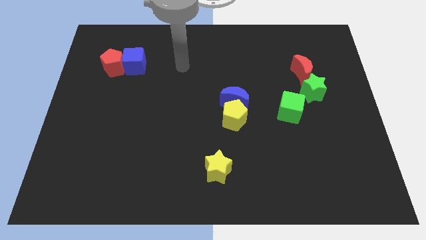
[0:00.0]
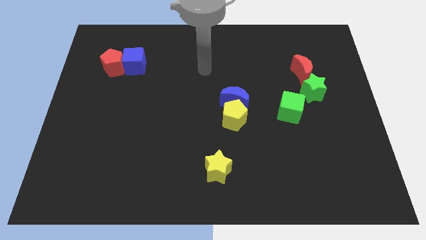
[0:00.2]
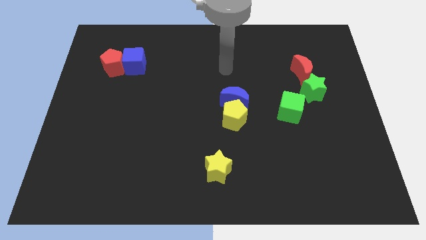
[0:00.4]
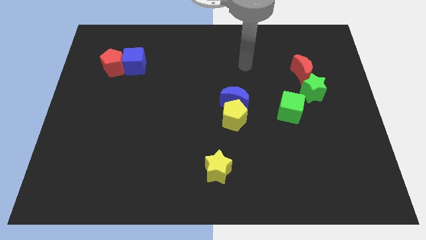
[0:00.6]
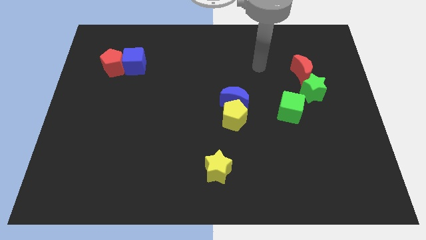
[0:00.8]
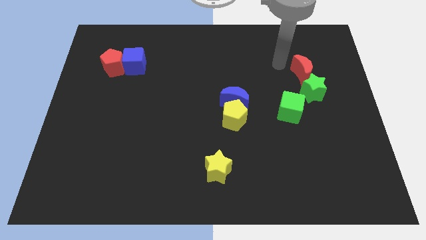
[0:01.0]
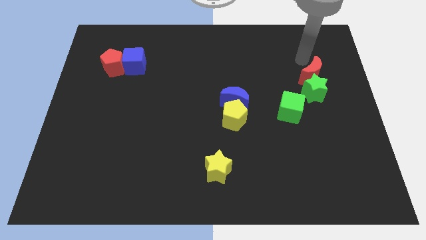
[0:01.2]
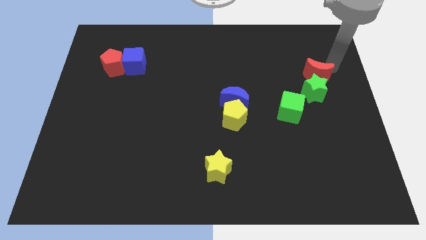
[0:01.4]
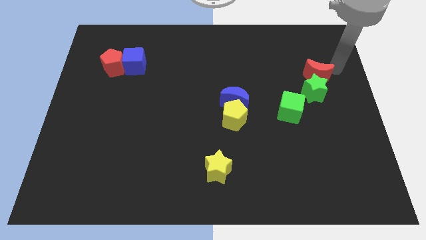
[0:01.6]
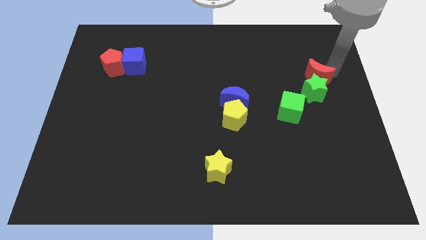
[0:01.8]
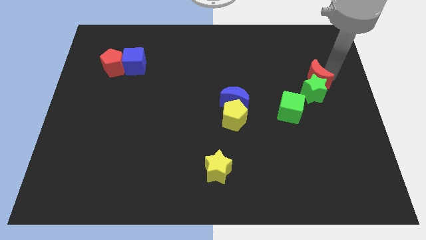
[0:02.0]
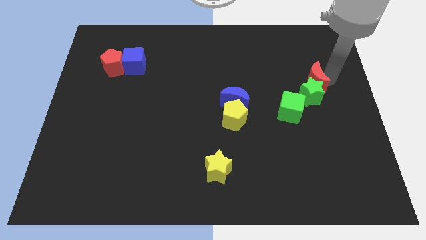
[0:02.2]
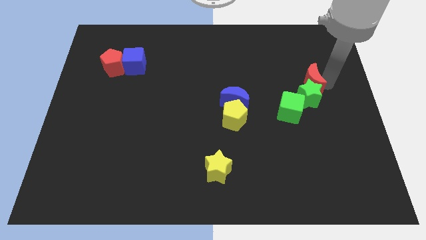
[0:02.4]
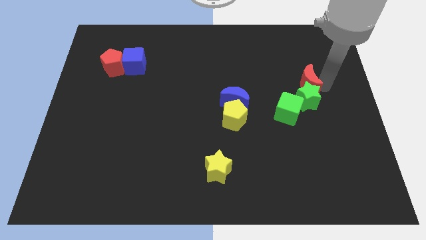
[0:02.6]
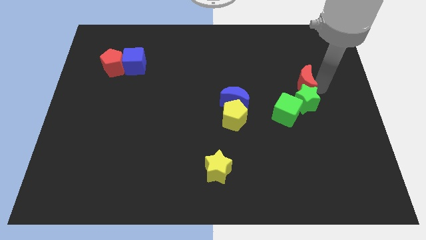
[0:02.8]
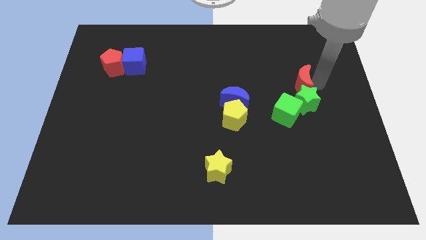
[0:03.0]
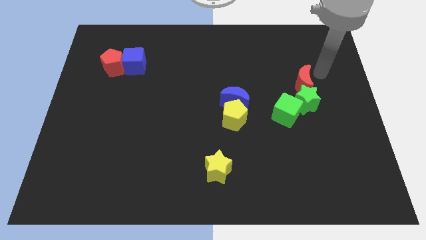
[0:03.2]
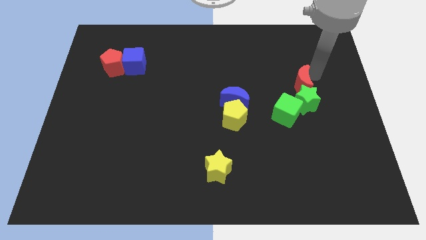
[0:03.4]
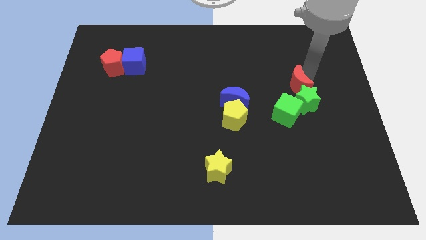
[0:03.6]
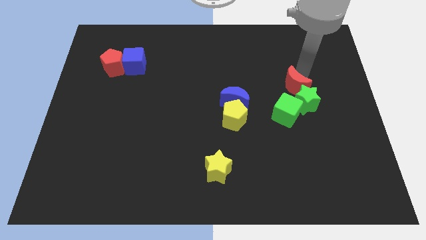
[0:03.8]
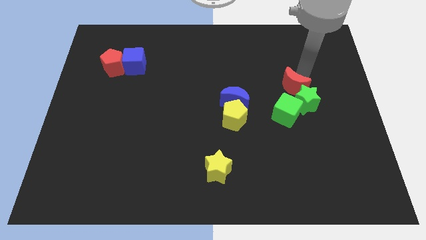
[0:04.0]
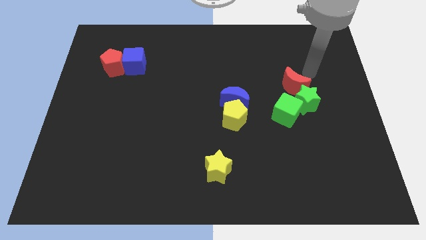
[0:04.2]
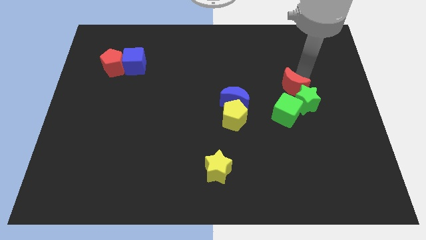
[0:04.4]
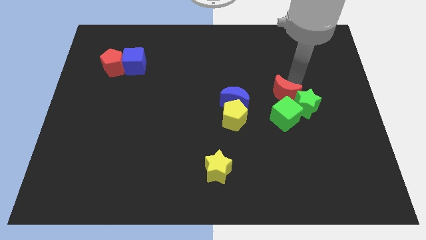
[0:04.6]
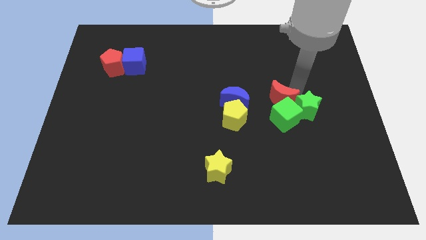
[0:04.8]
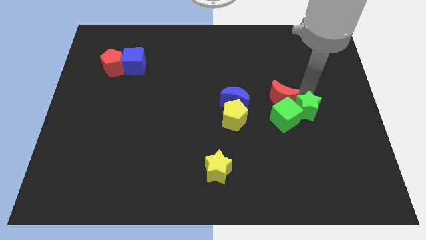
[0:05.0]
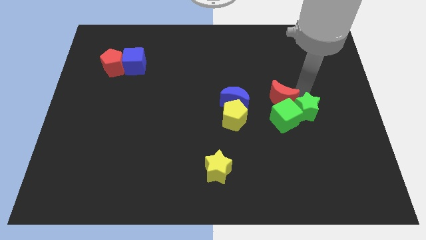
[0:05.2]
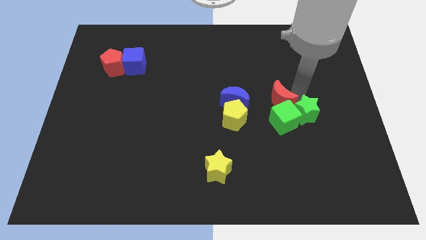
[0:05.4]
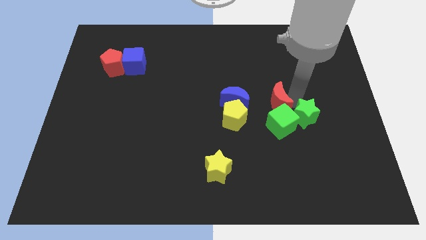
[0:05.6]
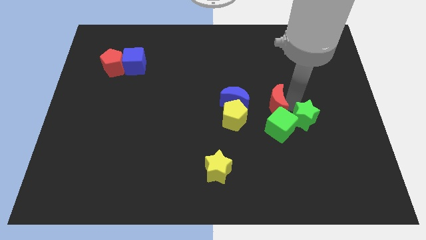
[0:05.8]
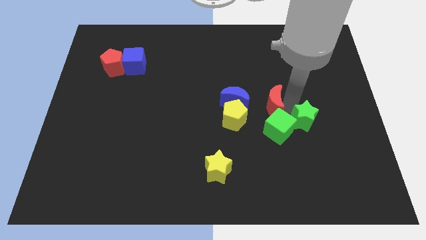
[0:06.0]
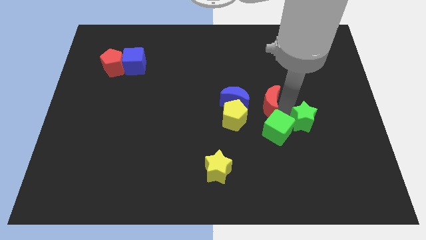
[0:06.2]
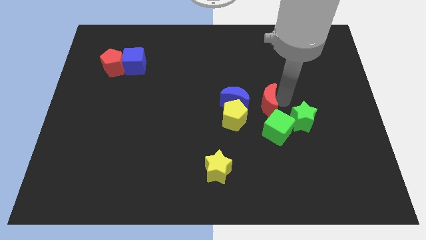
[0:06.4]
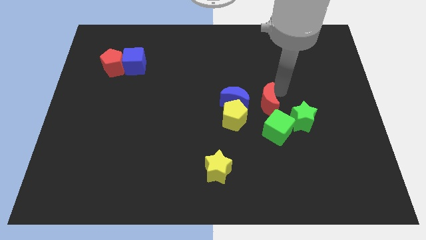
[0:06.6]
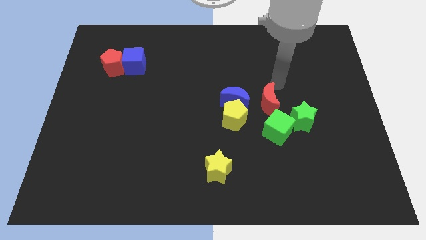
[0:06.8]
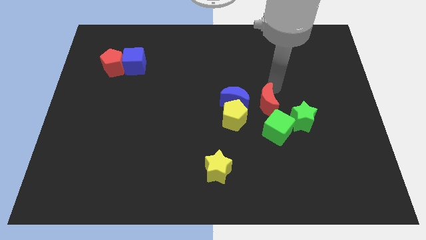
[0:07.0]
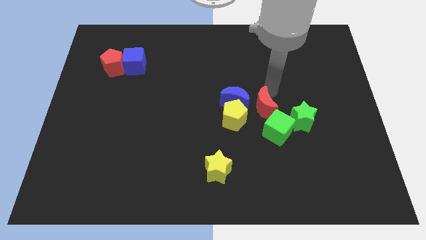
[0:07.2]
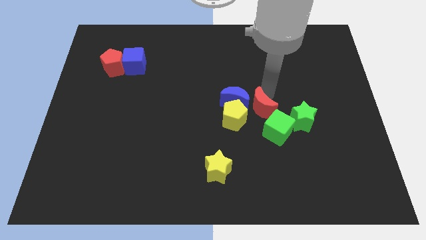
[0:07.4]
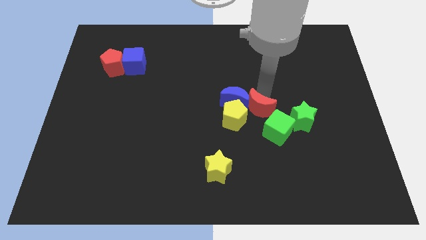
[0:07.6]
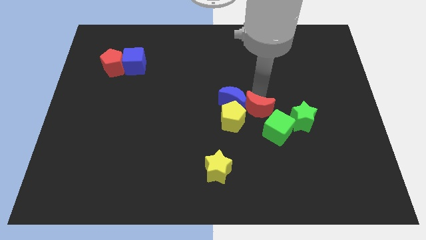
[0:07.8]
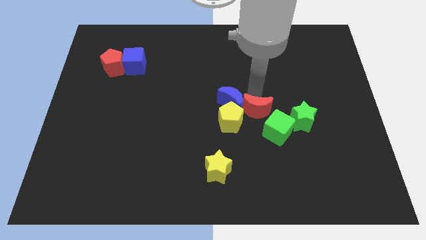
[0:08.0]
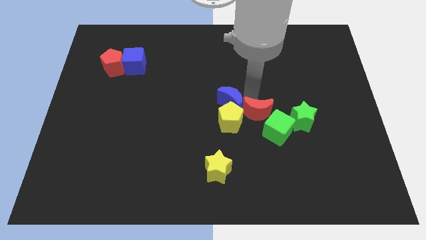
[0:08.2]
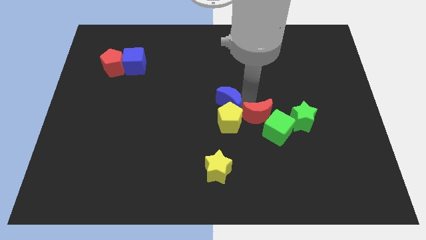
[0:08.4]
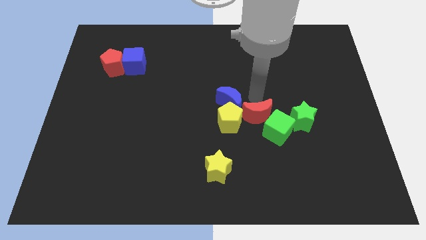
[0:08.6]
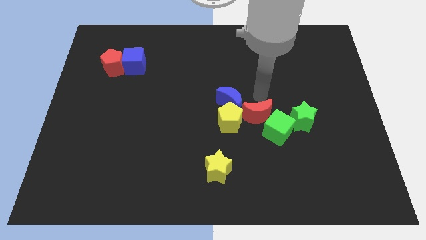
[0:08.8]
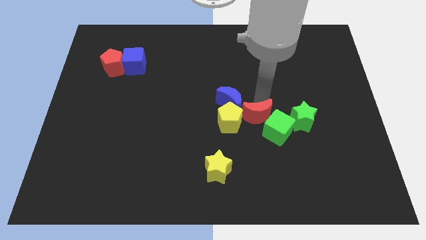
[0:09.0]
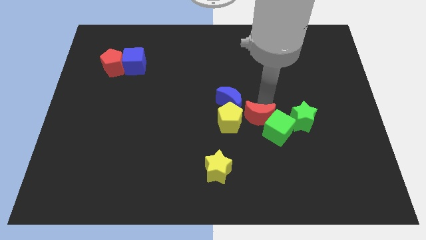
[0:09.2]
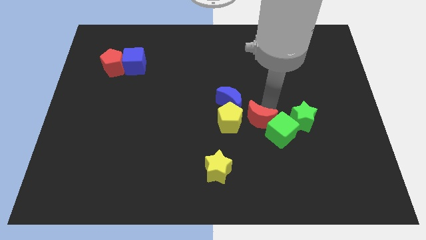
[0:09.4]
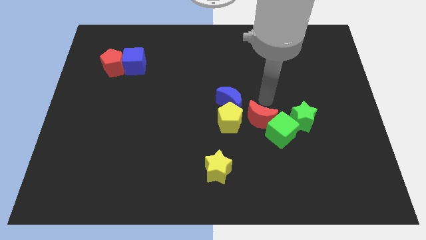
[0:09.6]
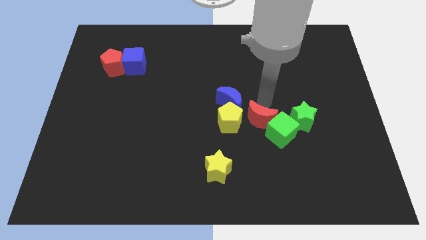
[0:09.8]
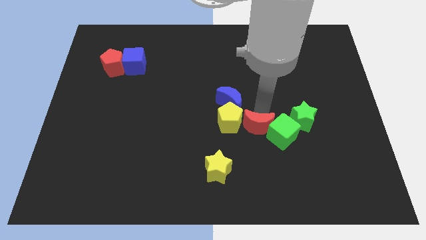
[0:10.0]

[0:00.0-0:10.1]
push the red moon to the bottom right of the yellow pentagon

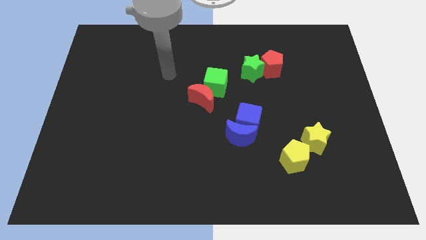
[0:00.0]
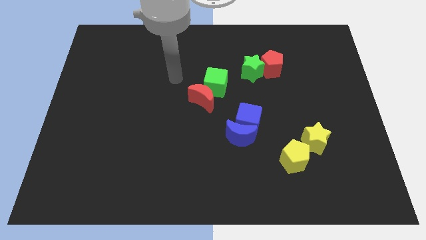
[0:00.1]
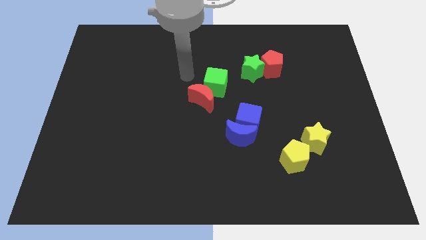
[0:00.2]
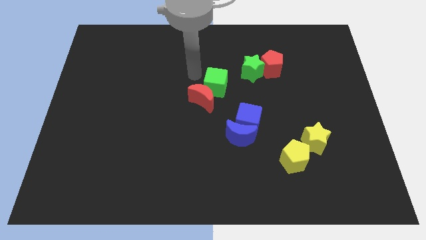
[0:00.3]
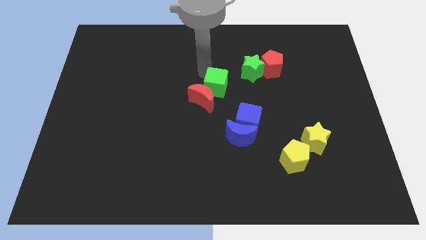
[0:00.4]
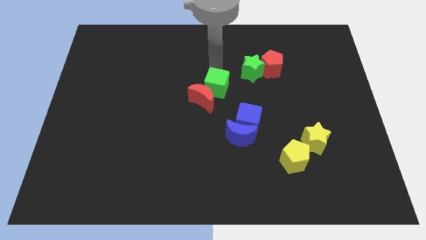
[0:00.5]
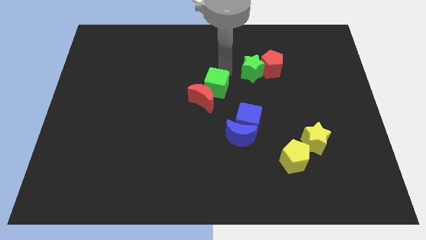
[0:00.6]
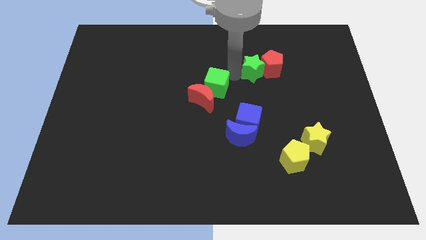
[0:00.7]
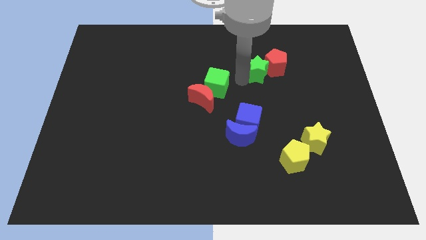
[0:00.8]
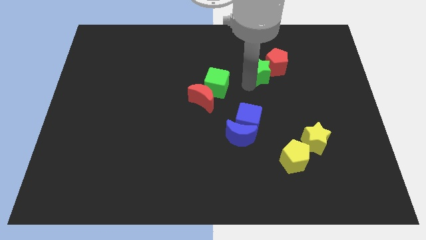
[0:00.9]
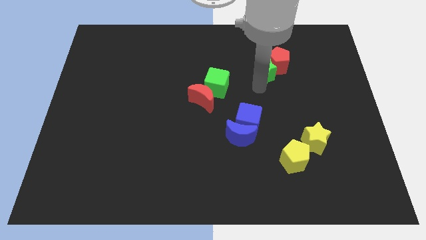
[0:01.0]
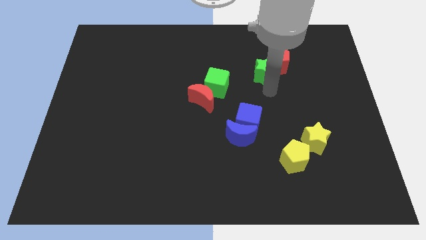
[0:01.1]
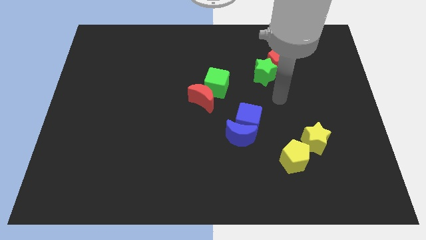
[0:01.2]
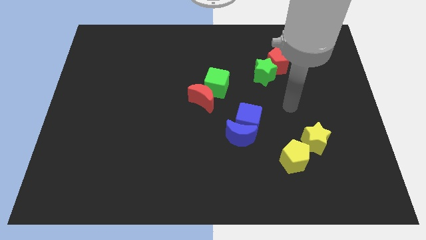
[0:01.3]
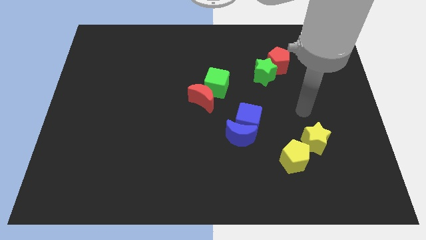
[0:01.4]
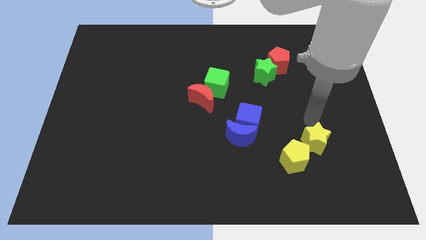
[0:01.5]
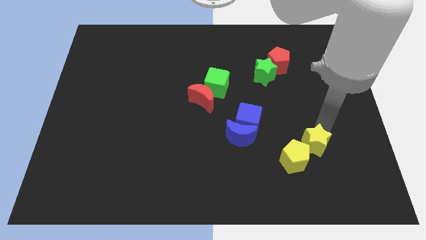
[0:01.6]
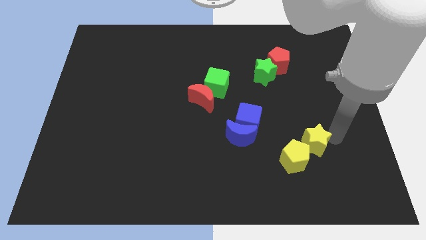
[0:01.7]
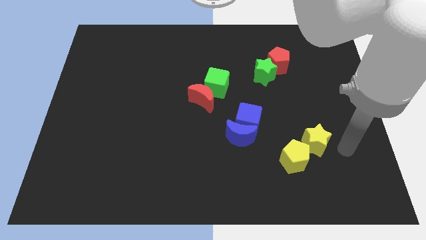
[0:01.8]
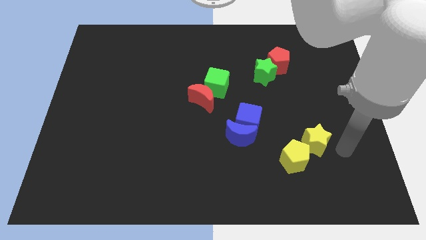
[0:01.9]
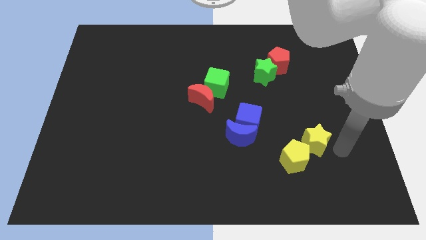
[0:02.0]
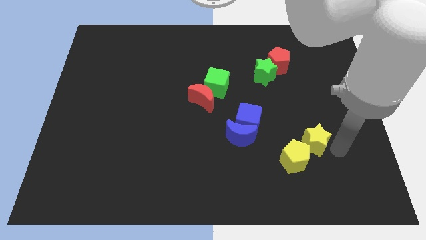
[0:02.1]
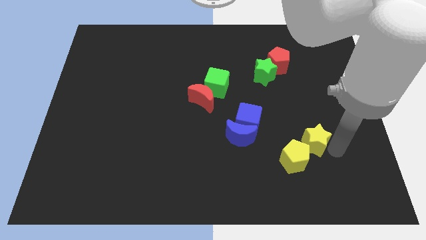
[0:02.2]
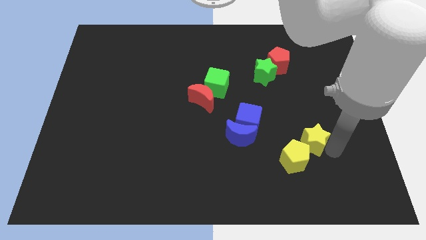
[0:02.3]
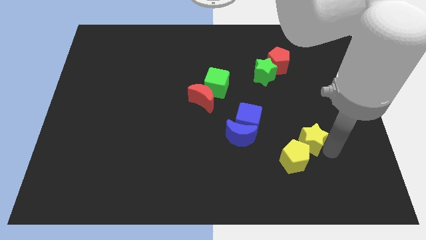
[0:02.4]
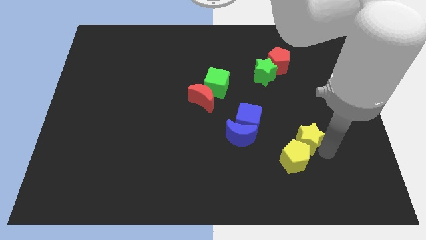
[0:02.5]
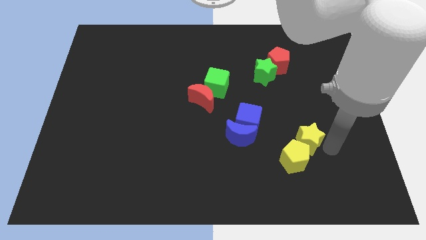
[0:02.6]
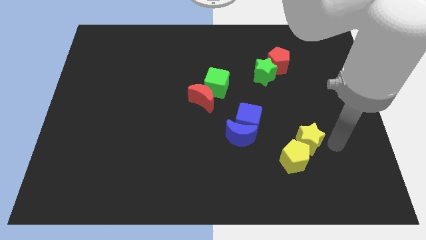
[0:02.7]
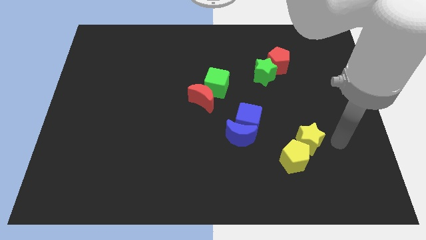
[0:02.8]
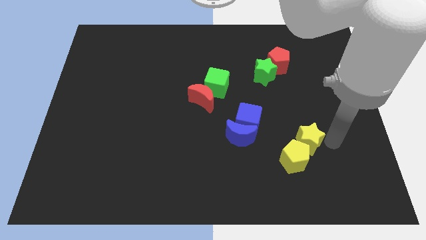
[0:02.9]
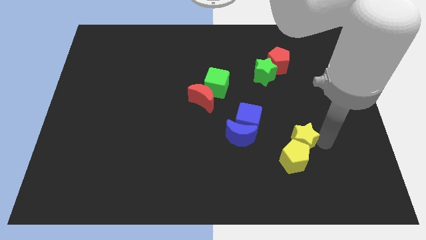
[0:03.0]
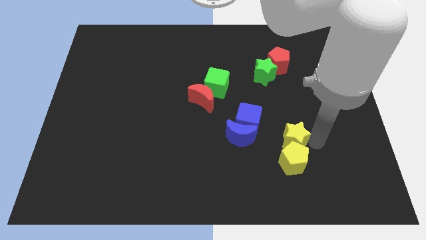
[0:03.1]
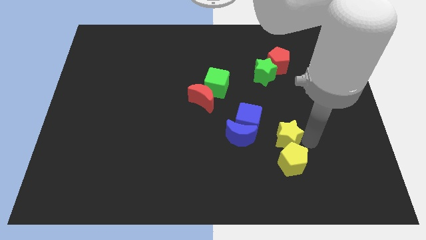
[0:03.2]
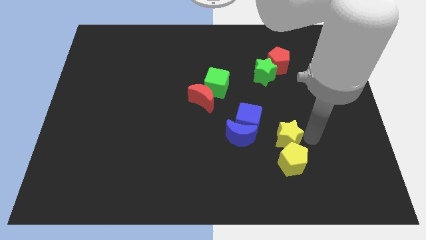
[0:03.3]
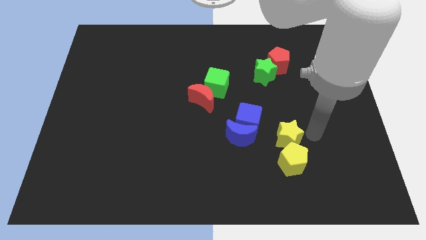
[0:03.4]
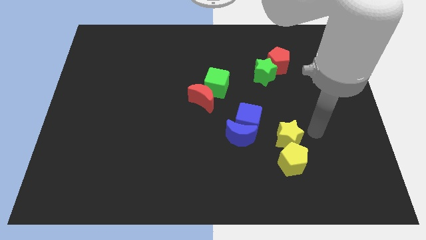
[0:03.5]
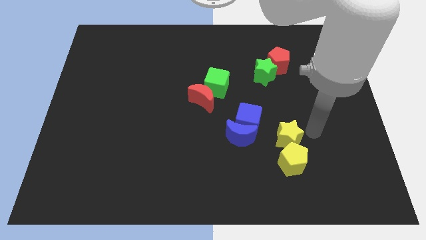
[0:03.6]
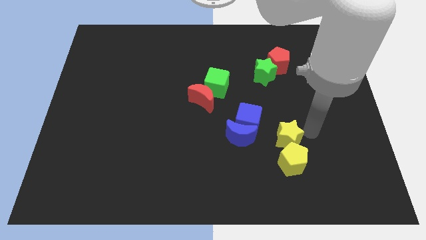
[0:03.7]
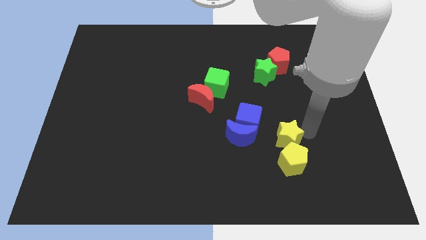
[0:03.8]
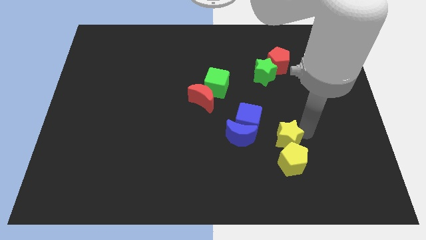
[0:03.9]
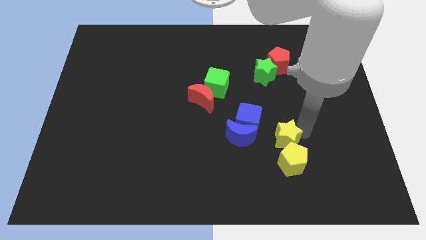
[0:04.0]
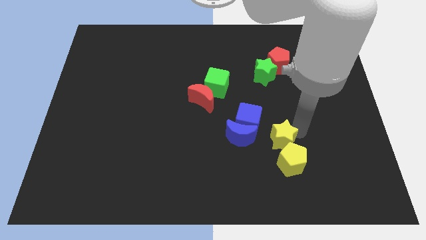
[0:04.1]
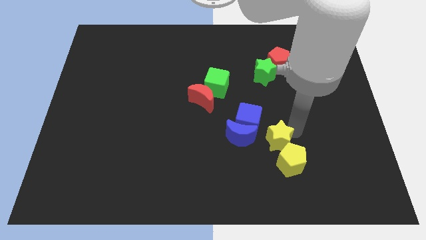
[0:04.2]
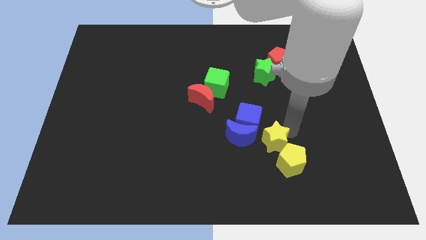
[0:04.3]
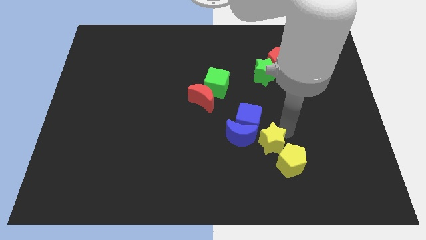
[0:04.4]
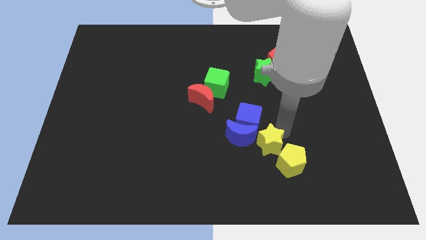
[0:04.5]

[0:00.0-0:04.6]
push the yellow star to the bottom of the blue cube
